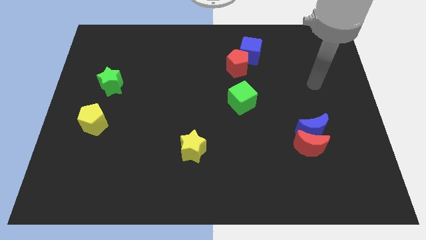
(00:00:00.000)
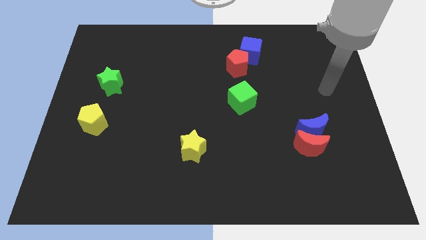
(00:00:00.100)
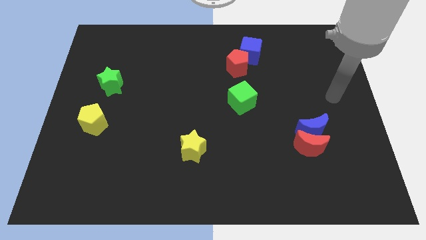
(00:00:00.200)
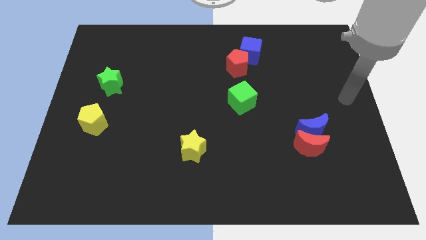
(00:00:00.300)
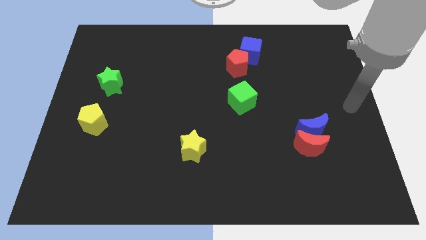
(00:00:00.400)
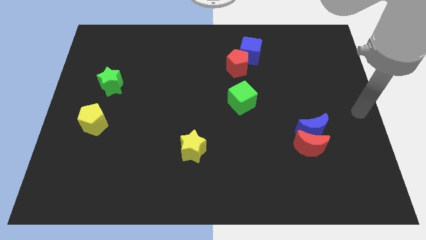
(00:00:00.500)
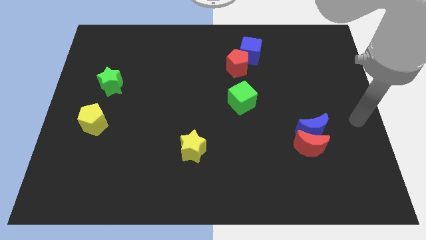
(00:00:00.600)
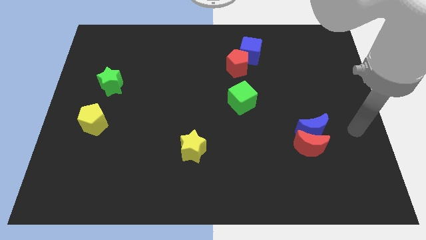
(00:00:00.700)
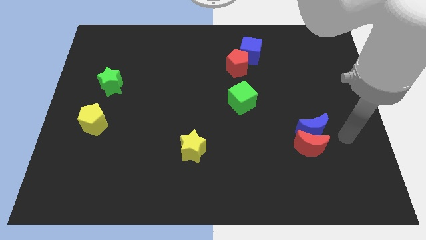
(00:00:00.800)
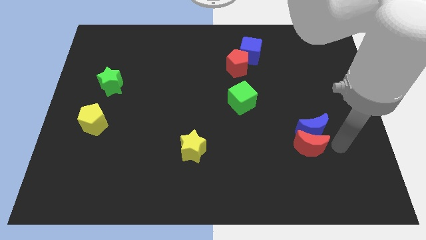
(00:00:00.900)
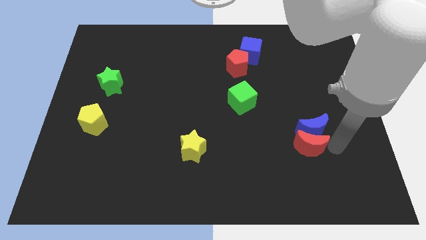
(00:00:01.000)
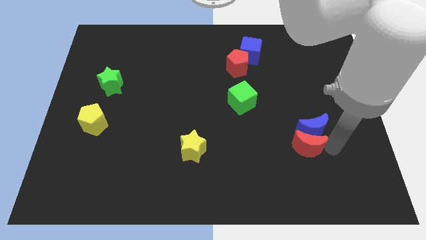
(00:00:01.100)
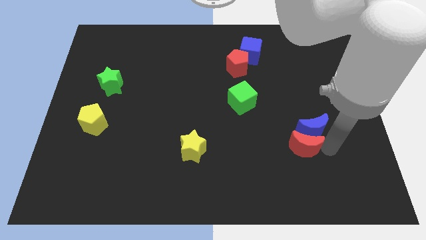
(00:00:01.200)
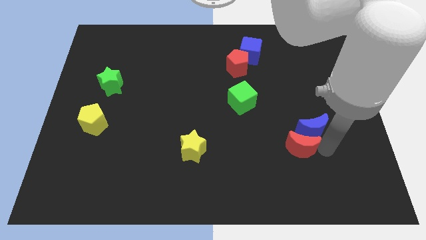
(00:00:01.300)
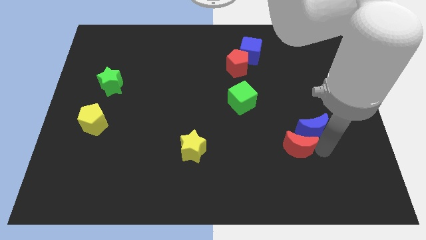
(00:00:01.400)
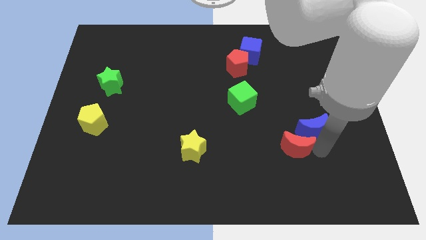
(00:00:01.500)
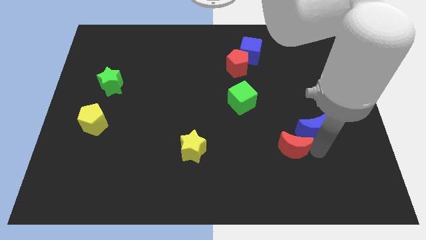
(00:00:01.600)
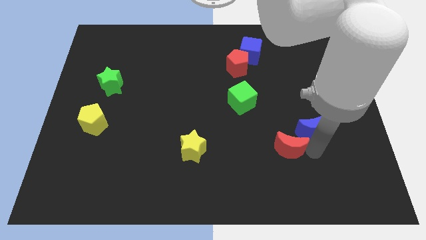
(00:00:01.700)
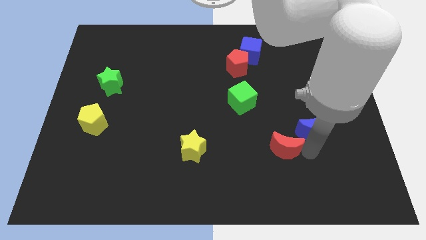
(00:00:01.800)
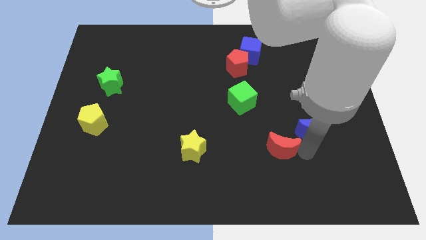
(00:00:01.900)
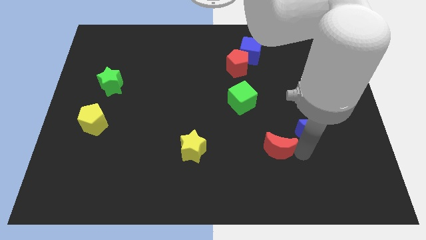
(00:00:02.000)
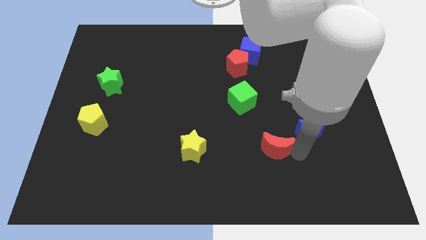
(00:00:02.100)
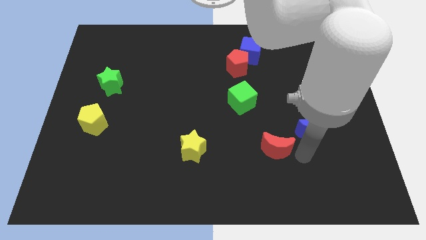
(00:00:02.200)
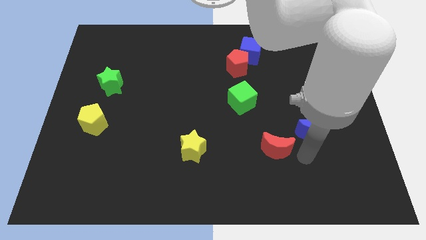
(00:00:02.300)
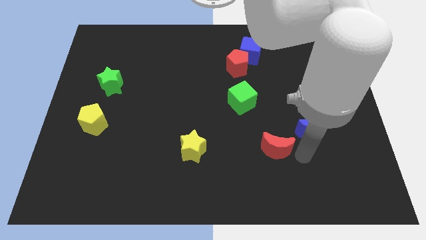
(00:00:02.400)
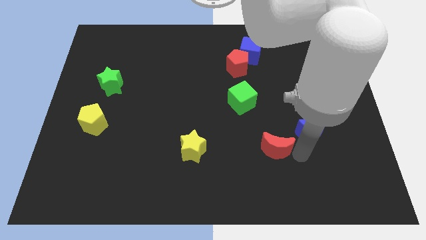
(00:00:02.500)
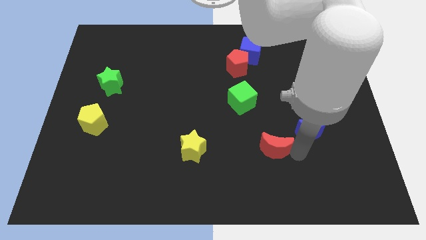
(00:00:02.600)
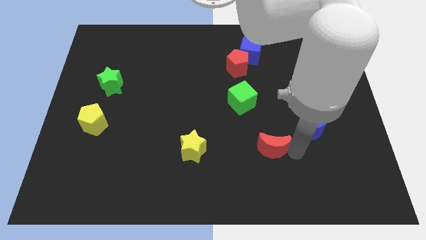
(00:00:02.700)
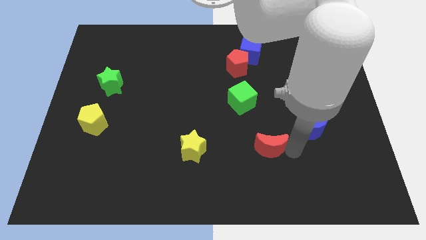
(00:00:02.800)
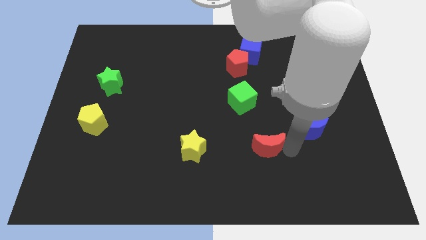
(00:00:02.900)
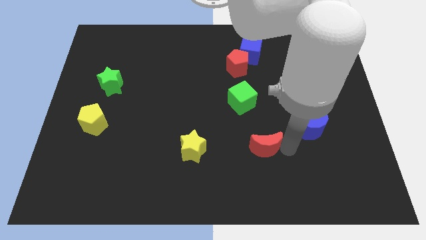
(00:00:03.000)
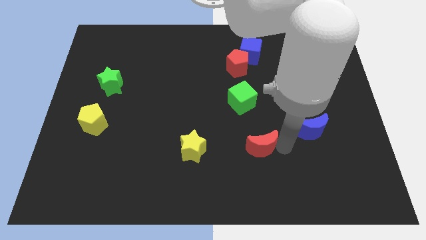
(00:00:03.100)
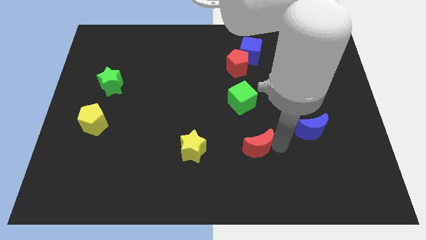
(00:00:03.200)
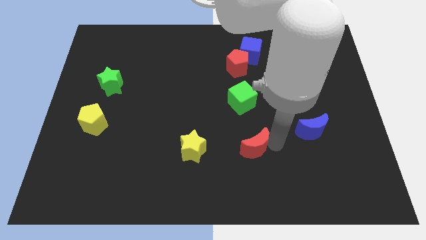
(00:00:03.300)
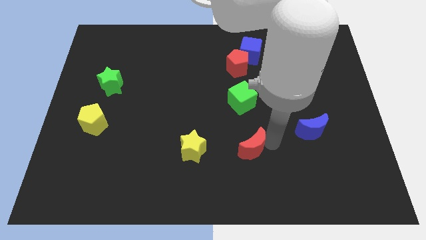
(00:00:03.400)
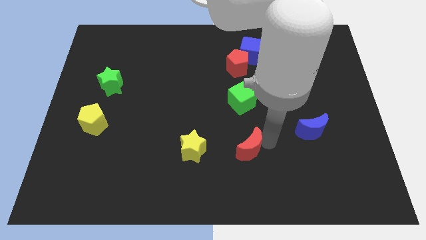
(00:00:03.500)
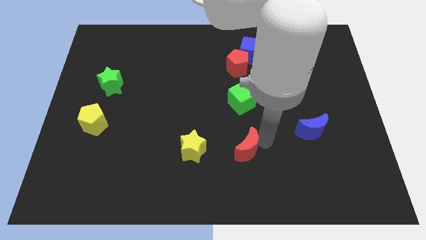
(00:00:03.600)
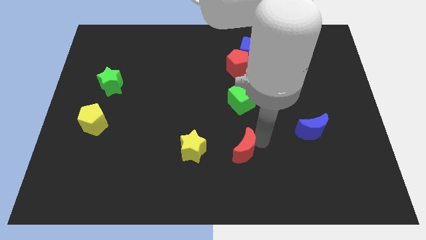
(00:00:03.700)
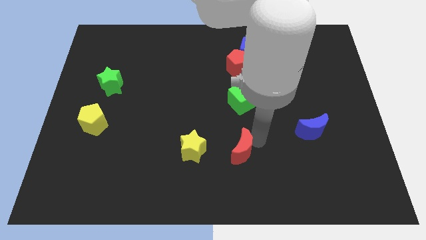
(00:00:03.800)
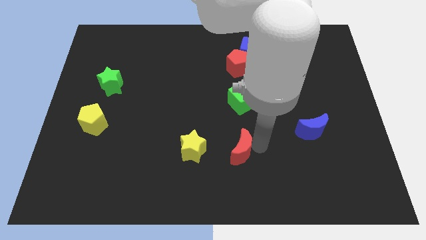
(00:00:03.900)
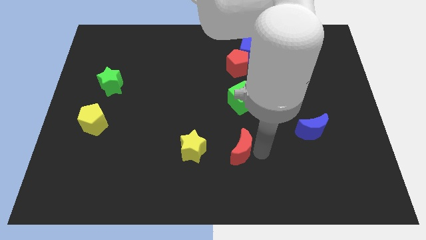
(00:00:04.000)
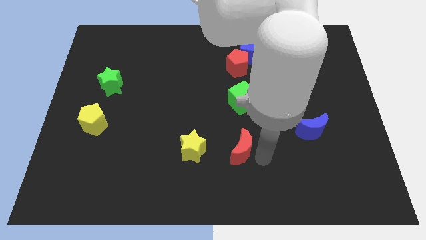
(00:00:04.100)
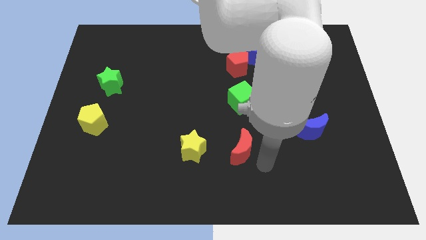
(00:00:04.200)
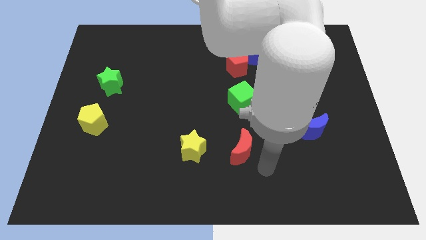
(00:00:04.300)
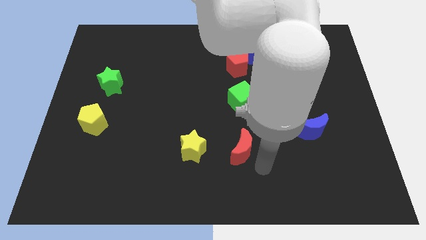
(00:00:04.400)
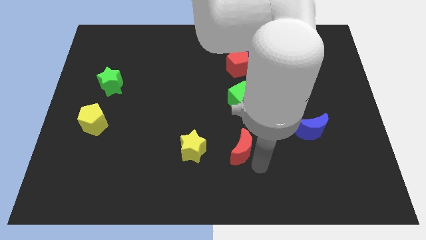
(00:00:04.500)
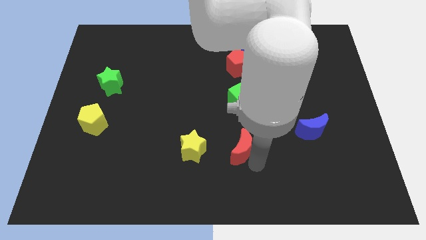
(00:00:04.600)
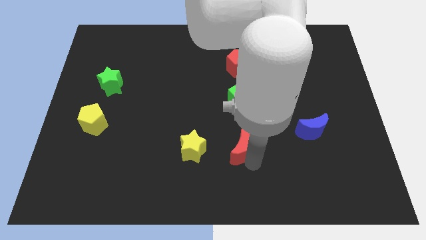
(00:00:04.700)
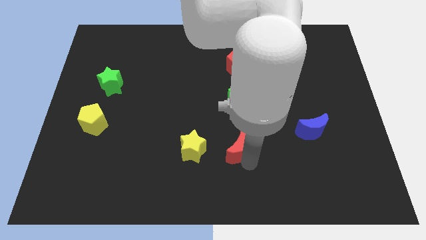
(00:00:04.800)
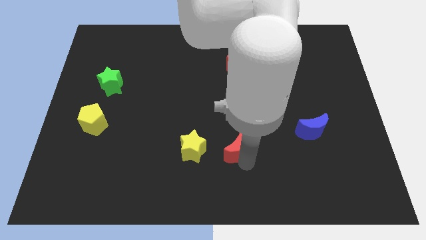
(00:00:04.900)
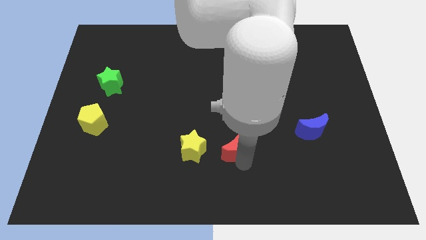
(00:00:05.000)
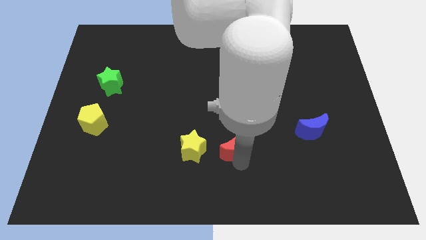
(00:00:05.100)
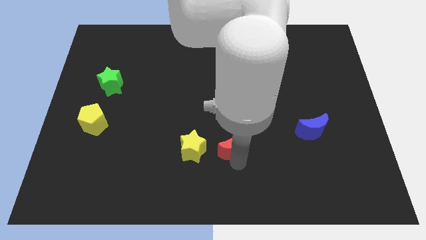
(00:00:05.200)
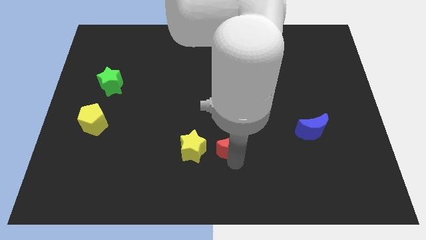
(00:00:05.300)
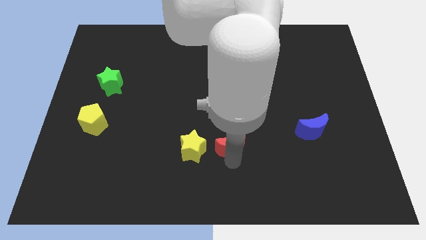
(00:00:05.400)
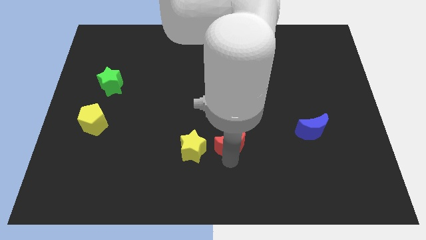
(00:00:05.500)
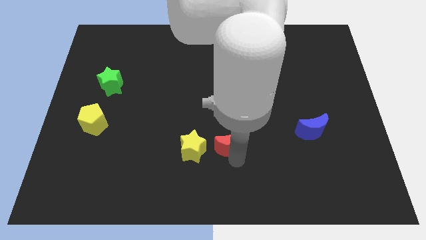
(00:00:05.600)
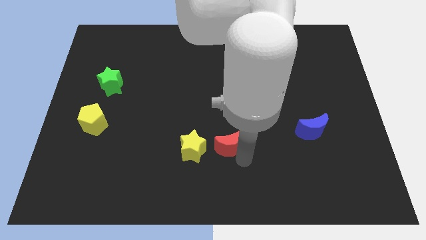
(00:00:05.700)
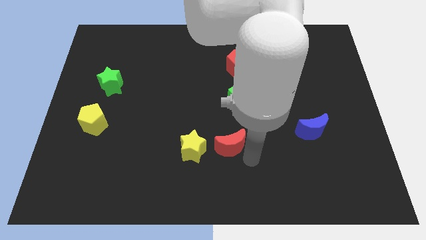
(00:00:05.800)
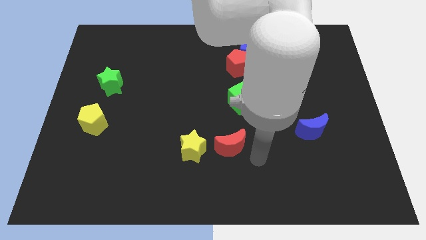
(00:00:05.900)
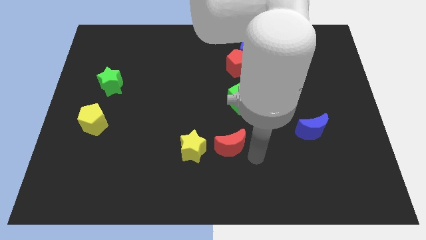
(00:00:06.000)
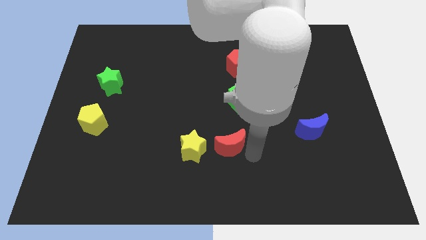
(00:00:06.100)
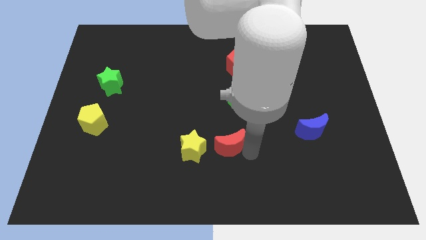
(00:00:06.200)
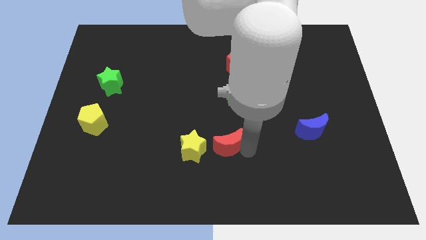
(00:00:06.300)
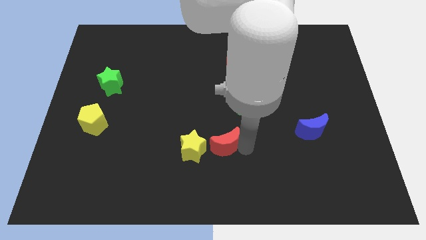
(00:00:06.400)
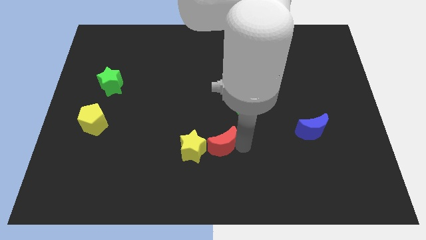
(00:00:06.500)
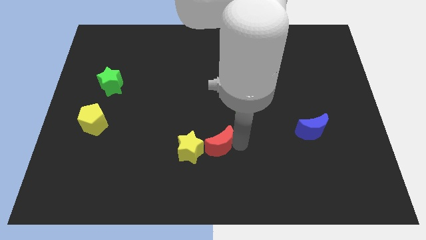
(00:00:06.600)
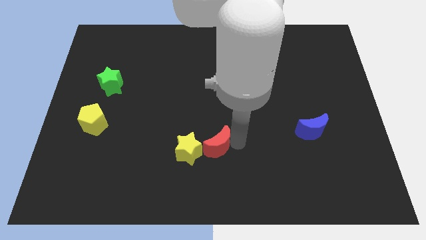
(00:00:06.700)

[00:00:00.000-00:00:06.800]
slide the red moon to the left

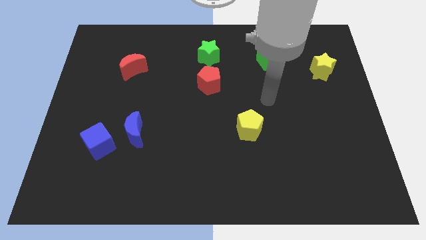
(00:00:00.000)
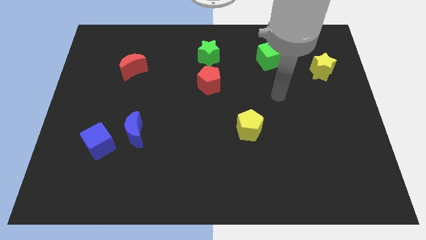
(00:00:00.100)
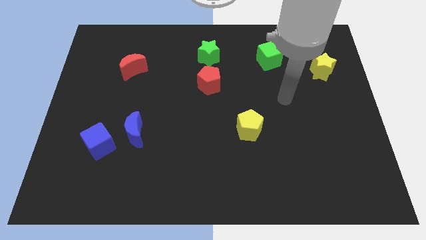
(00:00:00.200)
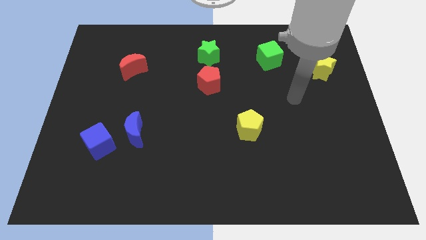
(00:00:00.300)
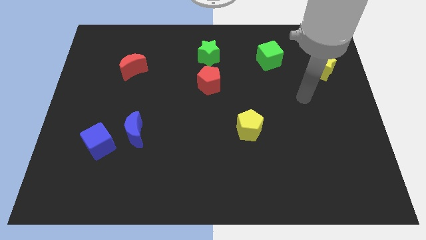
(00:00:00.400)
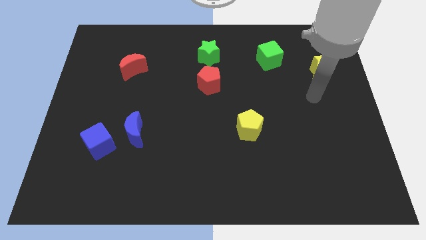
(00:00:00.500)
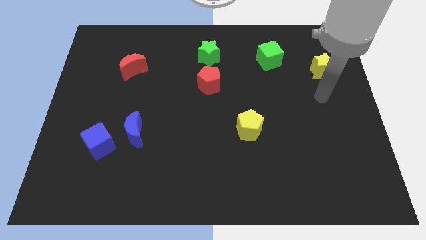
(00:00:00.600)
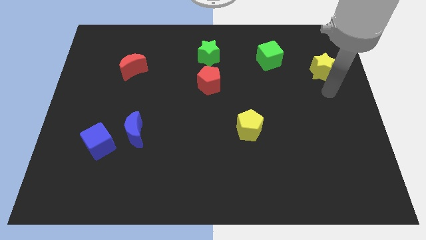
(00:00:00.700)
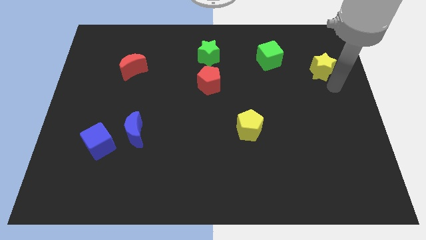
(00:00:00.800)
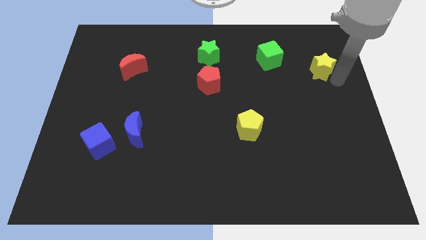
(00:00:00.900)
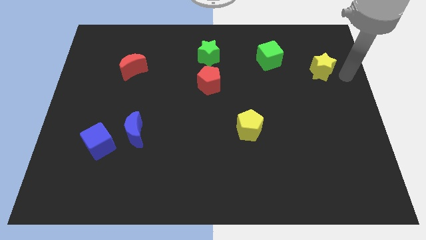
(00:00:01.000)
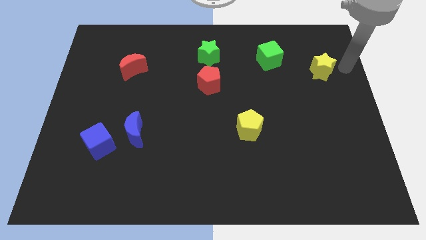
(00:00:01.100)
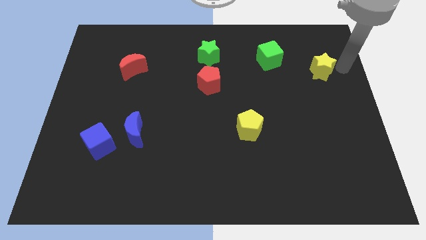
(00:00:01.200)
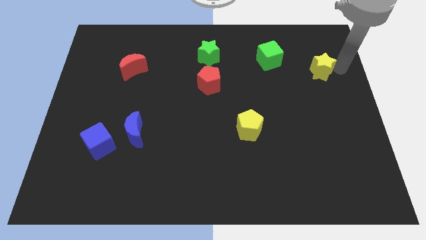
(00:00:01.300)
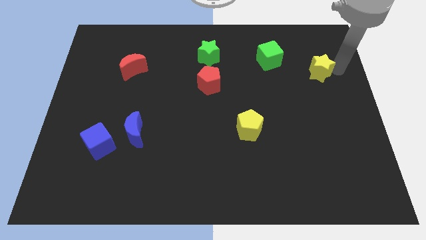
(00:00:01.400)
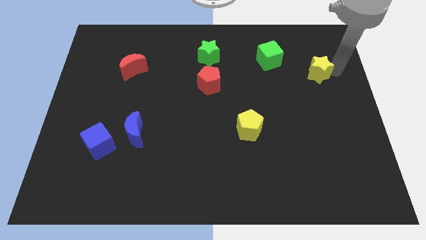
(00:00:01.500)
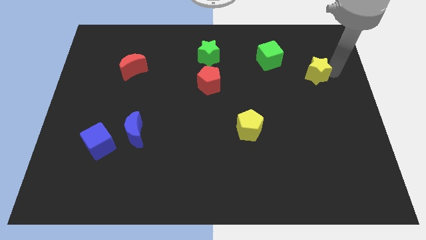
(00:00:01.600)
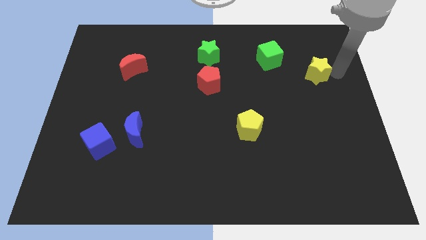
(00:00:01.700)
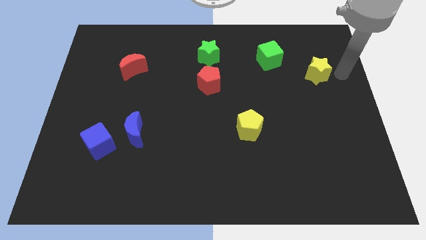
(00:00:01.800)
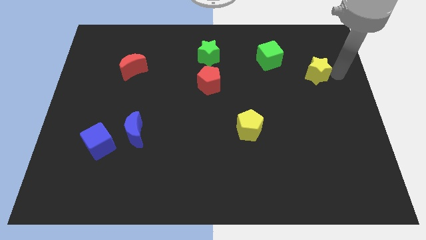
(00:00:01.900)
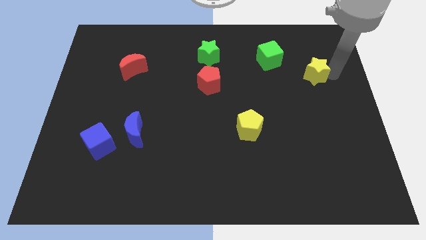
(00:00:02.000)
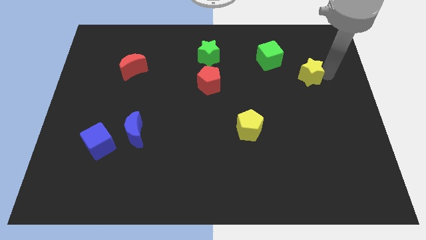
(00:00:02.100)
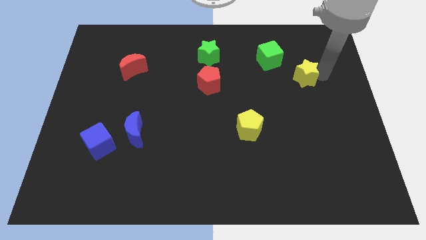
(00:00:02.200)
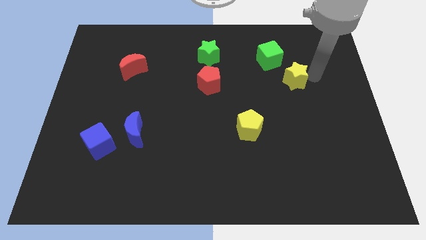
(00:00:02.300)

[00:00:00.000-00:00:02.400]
slightly slide the yellow star left
